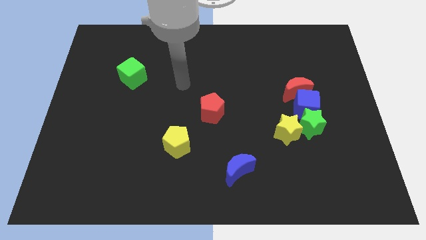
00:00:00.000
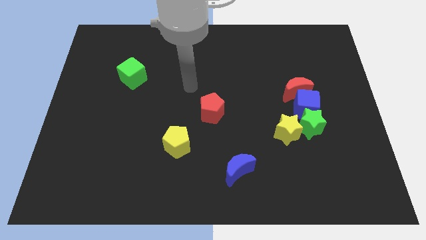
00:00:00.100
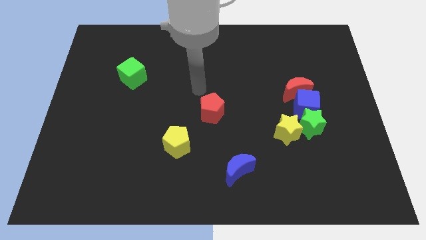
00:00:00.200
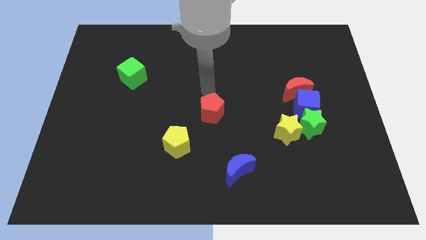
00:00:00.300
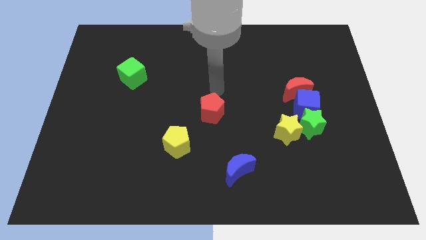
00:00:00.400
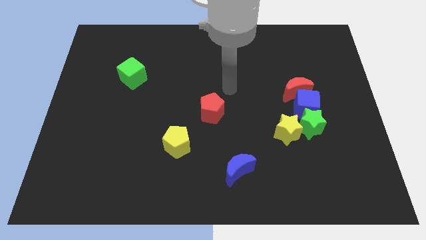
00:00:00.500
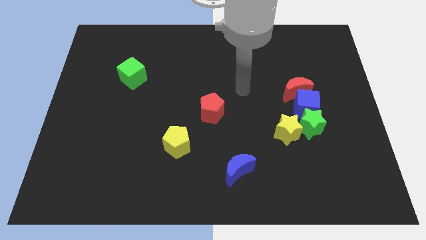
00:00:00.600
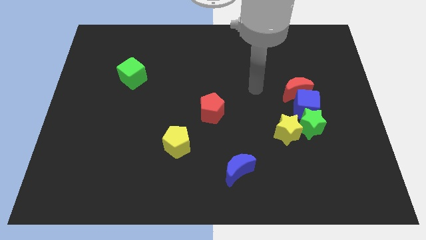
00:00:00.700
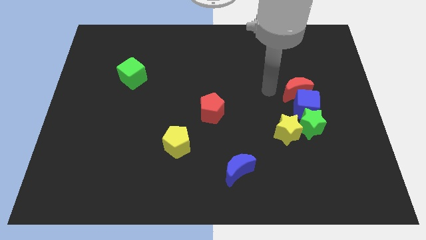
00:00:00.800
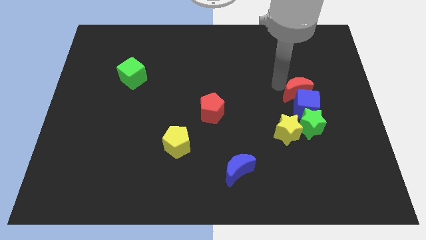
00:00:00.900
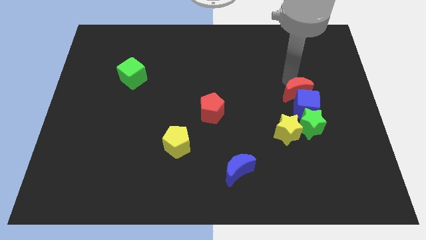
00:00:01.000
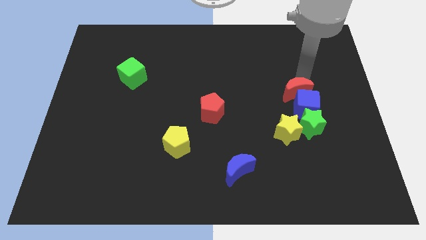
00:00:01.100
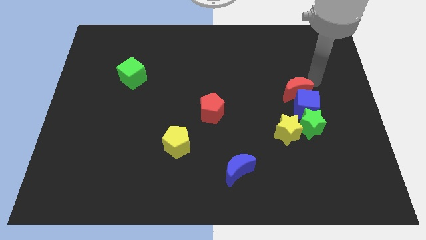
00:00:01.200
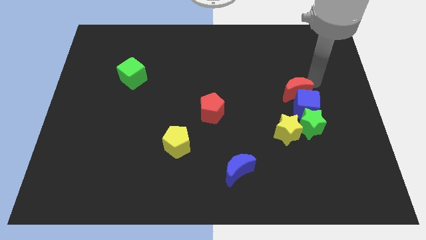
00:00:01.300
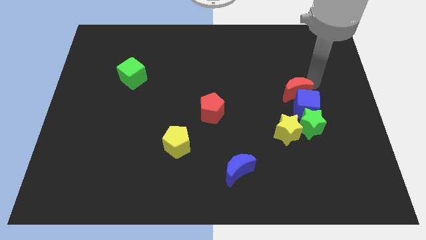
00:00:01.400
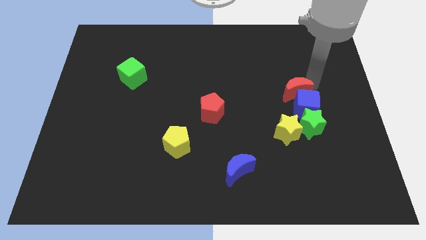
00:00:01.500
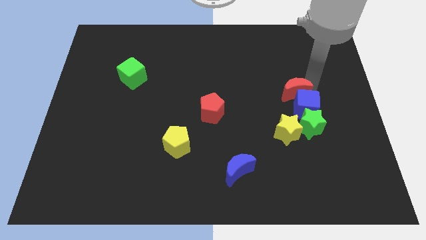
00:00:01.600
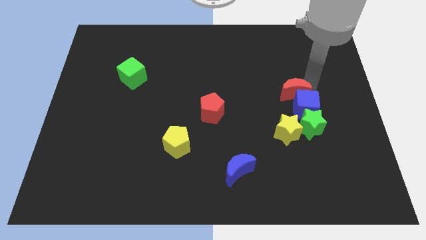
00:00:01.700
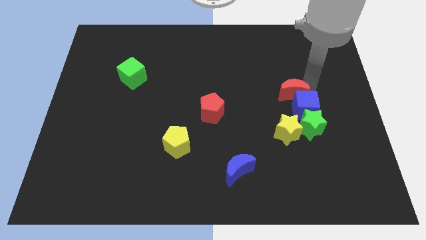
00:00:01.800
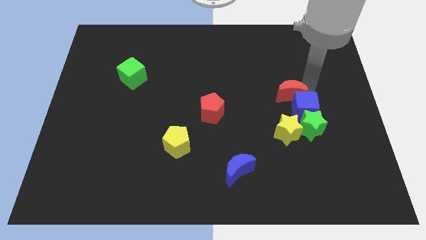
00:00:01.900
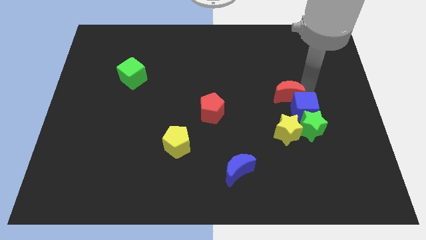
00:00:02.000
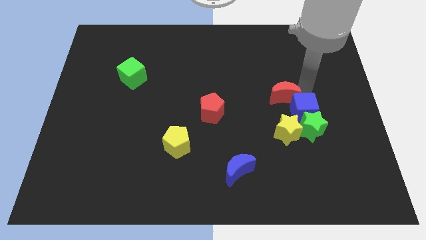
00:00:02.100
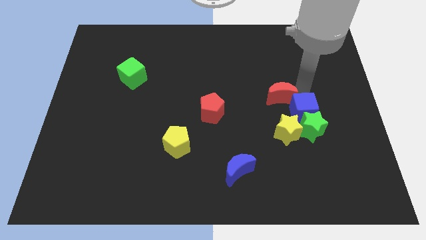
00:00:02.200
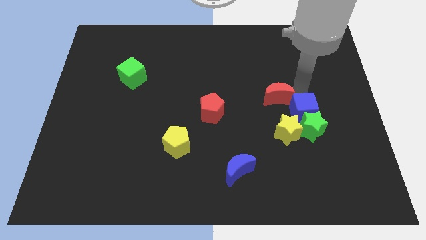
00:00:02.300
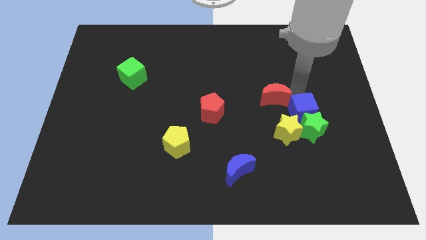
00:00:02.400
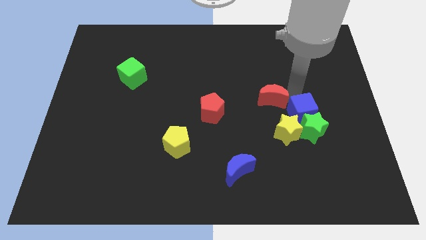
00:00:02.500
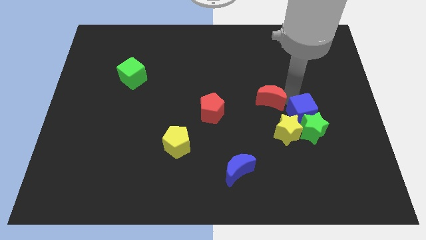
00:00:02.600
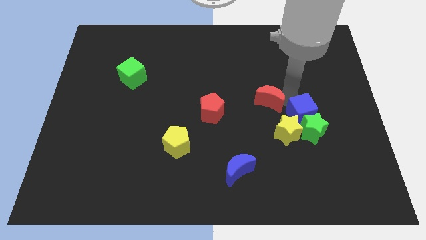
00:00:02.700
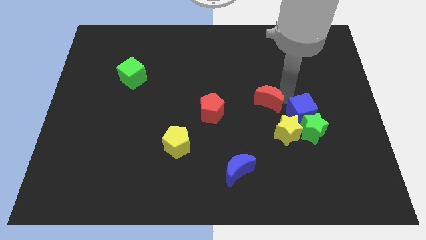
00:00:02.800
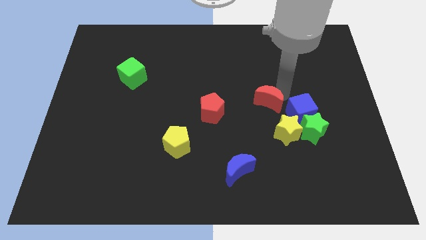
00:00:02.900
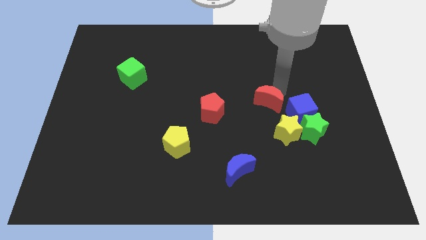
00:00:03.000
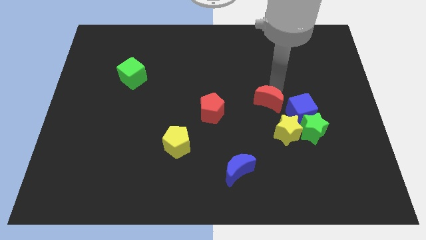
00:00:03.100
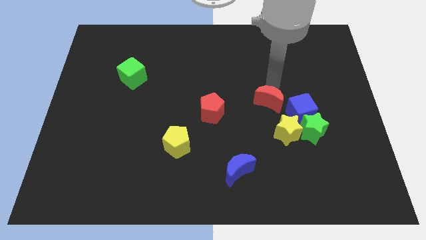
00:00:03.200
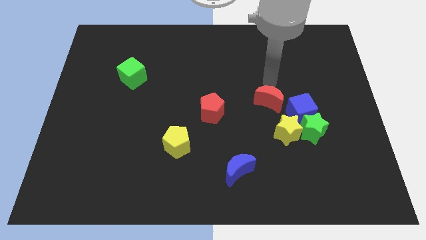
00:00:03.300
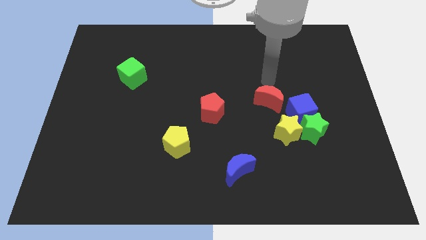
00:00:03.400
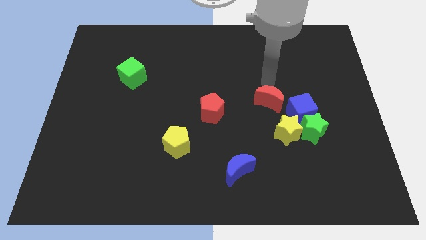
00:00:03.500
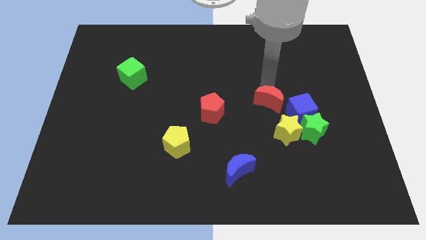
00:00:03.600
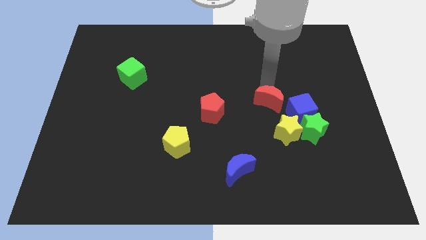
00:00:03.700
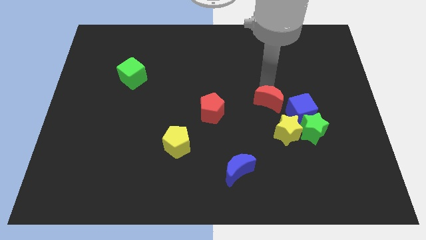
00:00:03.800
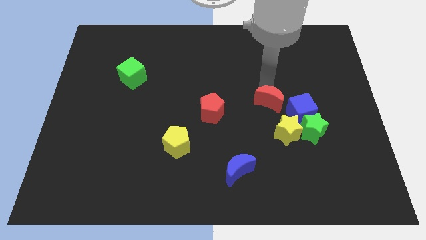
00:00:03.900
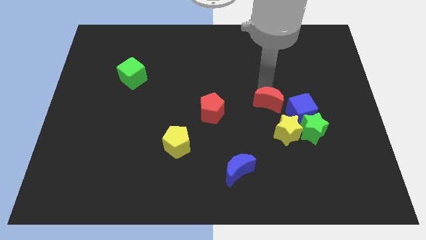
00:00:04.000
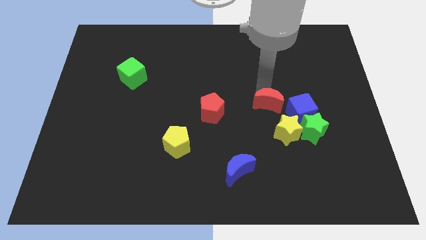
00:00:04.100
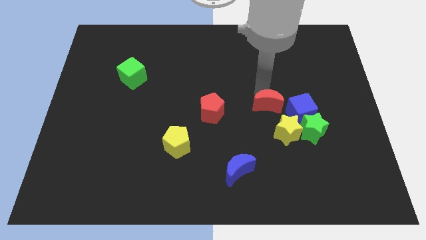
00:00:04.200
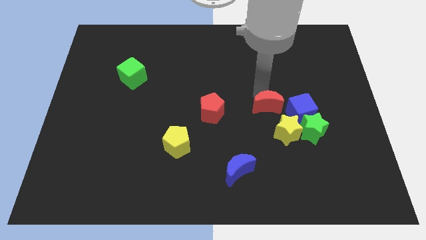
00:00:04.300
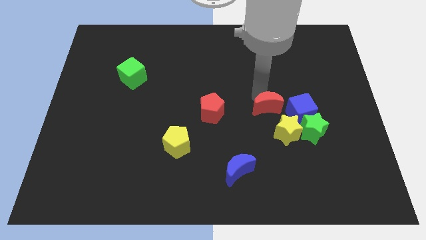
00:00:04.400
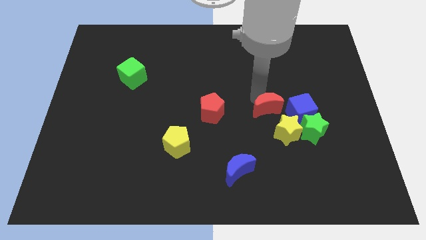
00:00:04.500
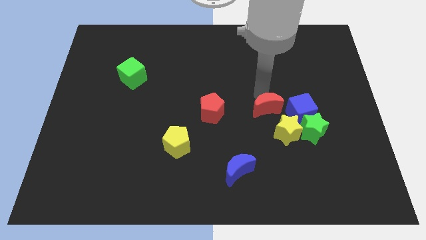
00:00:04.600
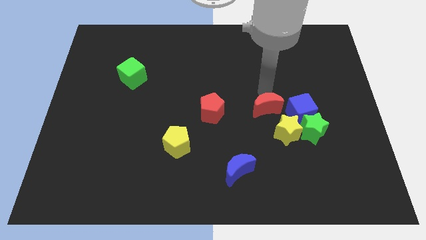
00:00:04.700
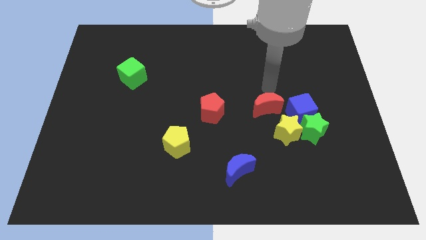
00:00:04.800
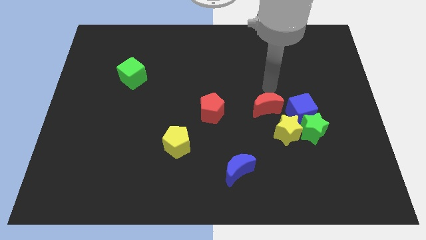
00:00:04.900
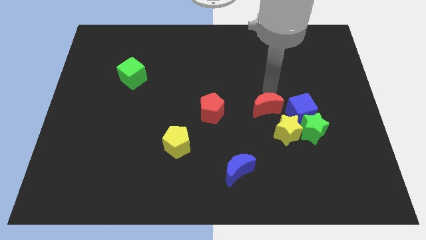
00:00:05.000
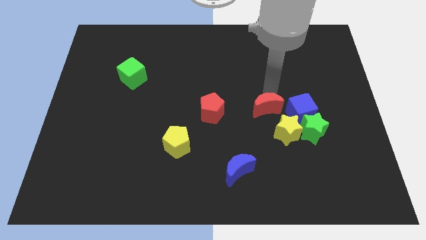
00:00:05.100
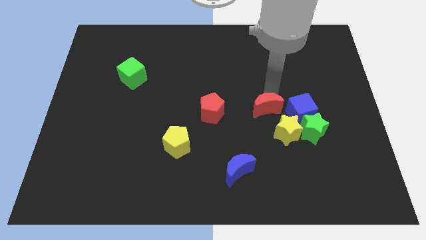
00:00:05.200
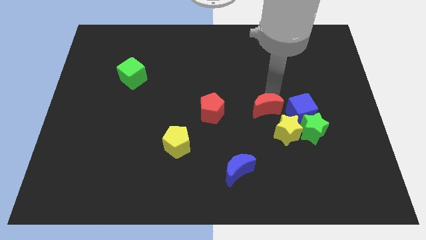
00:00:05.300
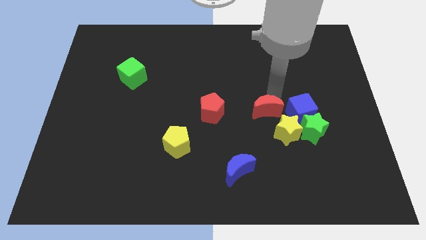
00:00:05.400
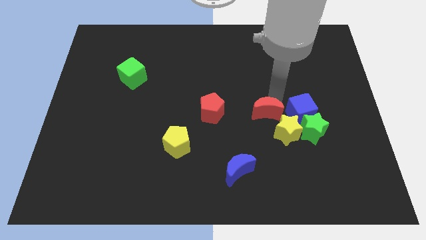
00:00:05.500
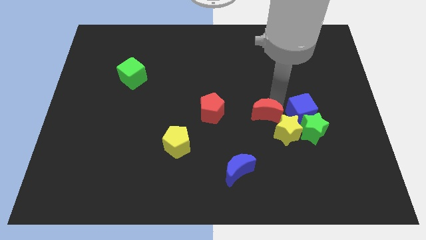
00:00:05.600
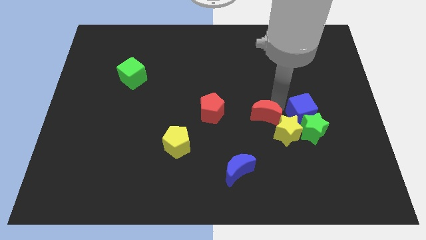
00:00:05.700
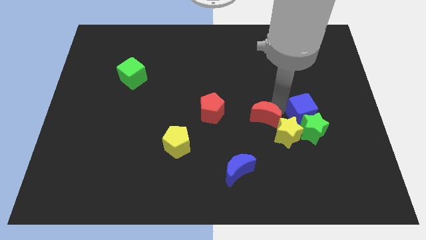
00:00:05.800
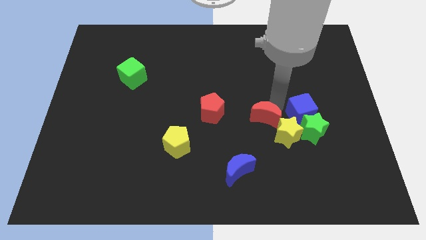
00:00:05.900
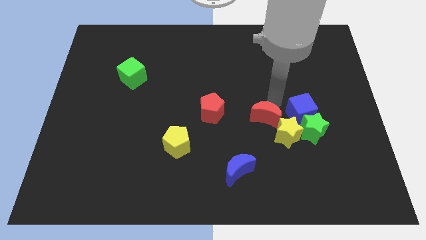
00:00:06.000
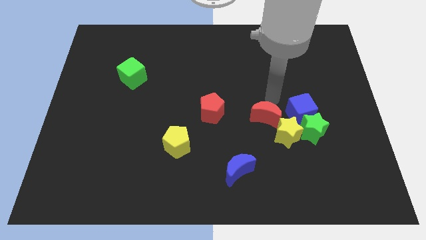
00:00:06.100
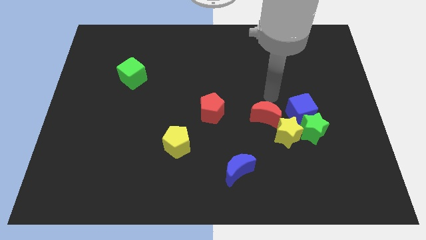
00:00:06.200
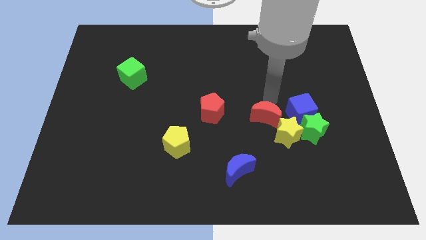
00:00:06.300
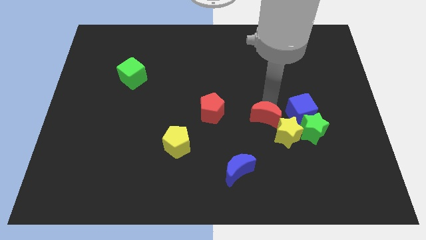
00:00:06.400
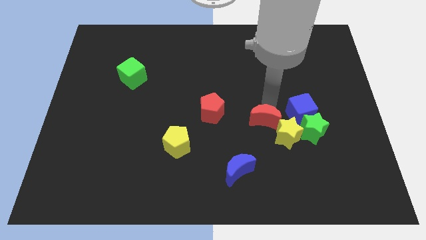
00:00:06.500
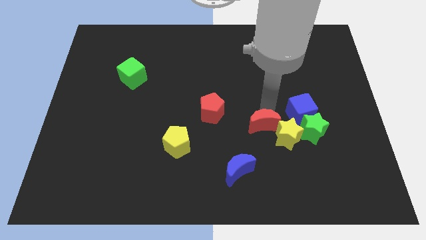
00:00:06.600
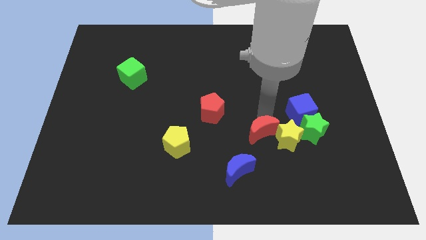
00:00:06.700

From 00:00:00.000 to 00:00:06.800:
slide the red moon diagonally up and to the right of the blue moon
